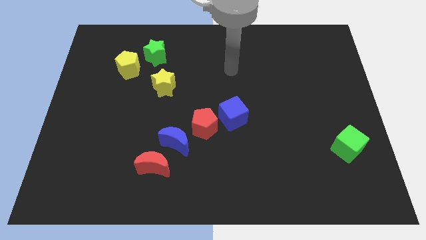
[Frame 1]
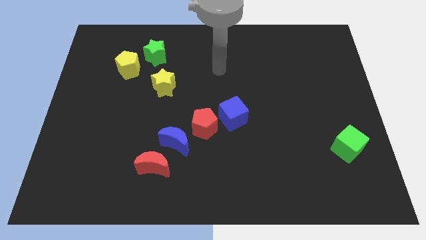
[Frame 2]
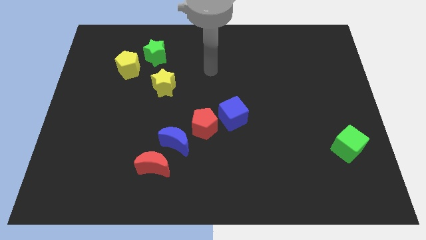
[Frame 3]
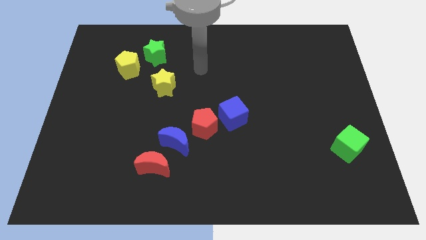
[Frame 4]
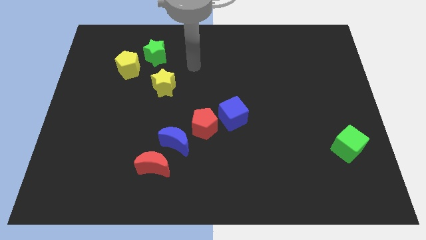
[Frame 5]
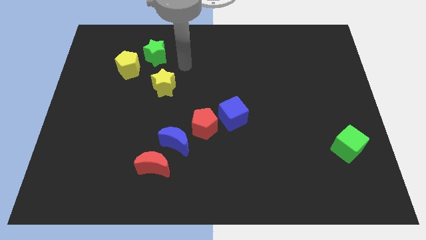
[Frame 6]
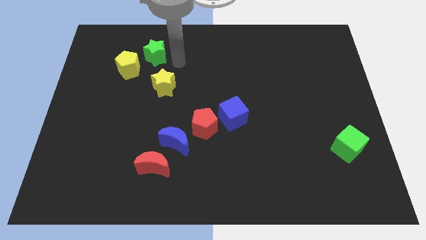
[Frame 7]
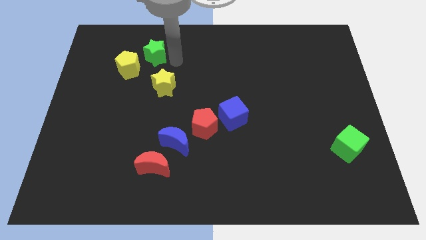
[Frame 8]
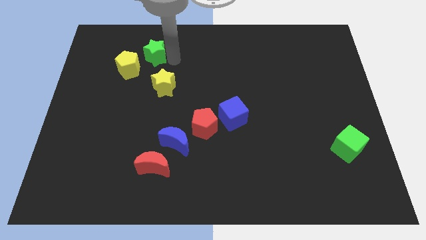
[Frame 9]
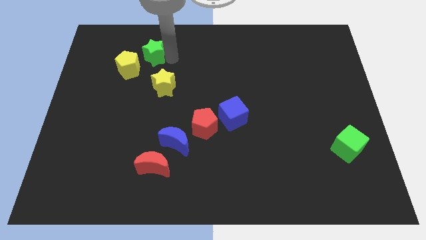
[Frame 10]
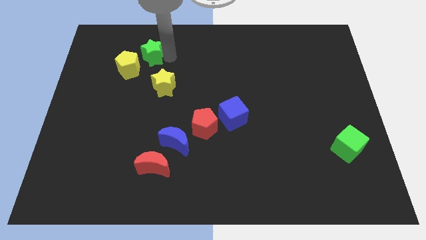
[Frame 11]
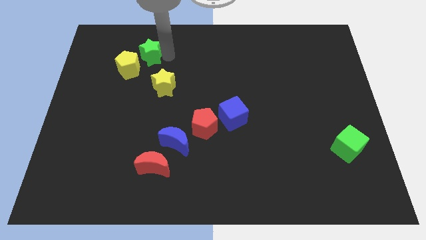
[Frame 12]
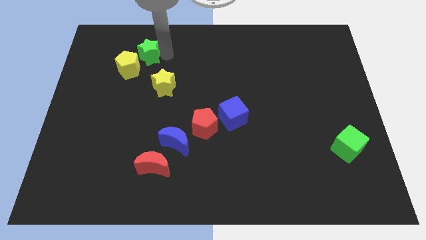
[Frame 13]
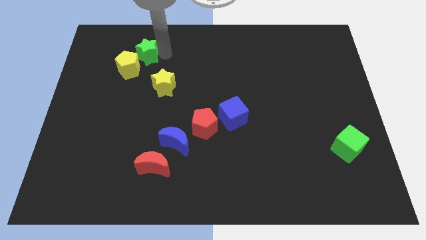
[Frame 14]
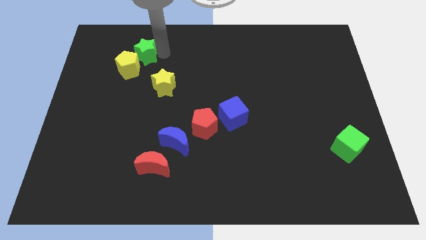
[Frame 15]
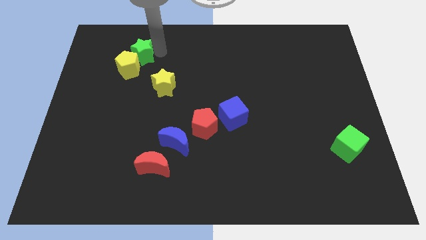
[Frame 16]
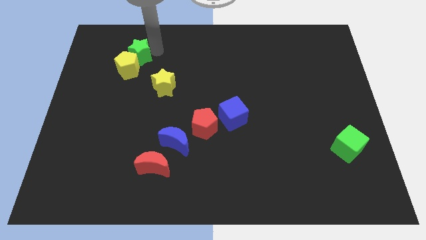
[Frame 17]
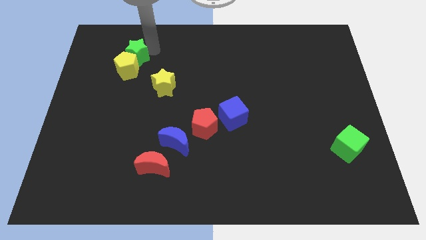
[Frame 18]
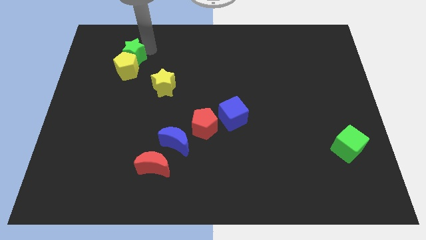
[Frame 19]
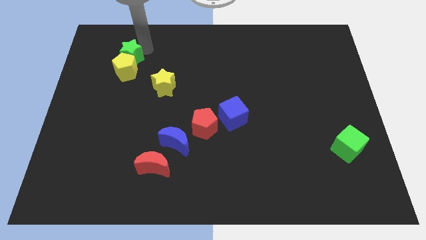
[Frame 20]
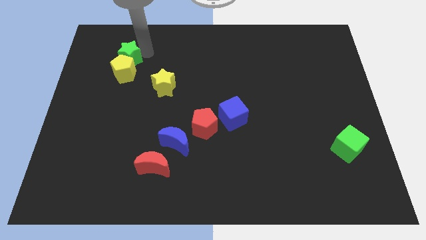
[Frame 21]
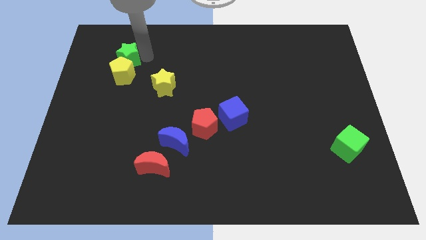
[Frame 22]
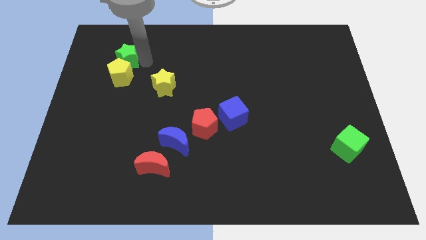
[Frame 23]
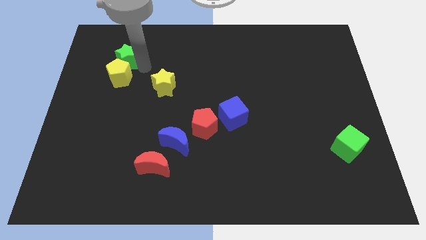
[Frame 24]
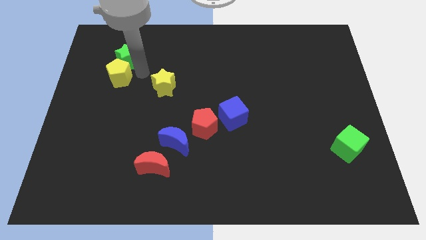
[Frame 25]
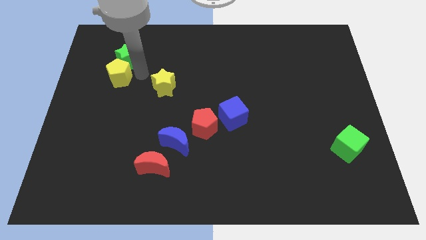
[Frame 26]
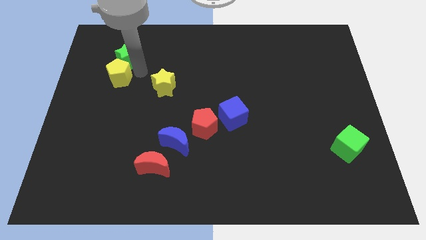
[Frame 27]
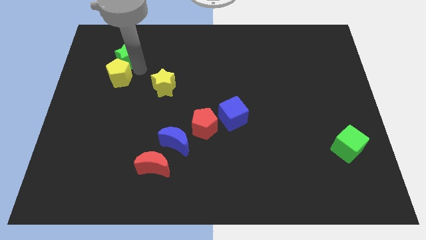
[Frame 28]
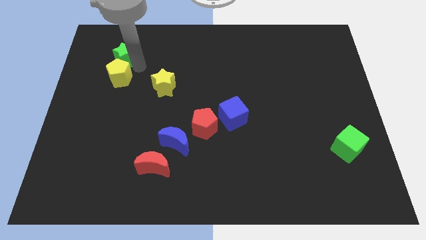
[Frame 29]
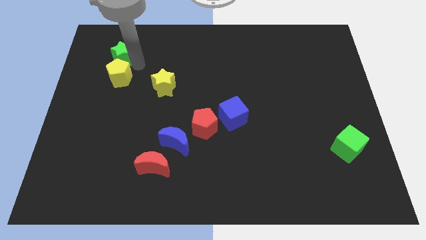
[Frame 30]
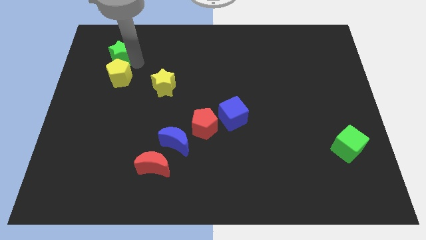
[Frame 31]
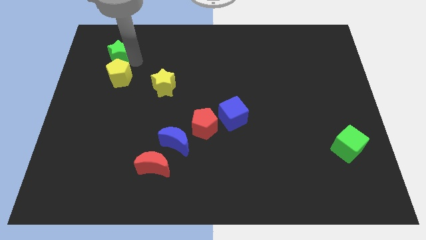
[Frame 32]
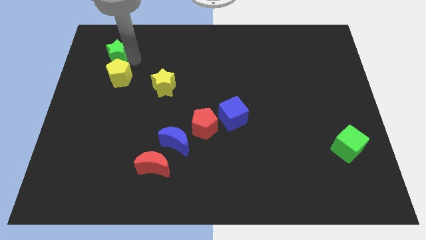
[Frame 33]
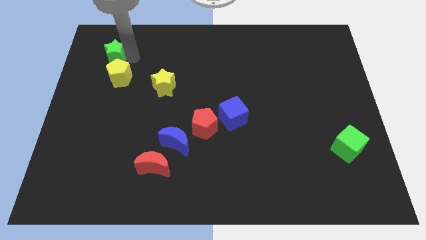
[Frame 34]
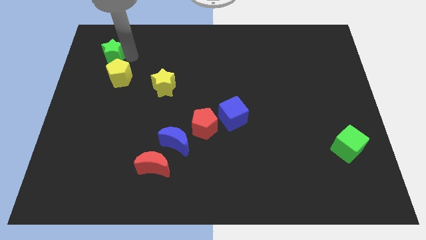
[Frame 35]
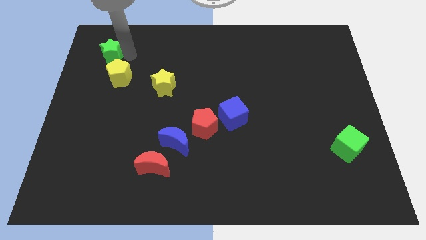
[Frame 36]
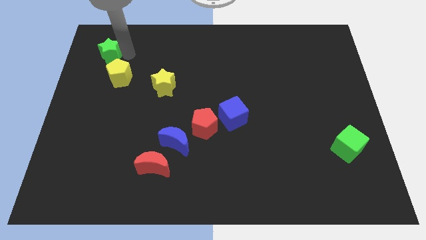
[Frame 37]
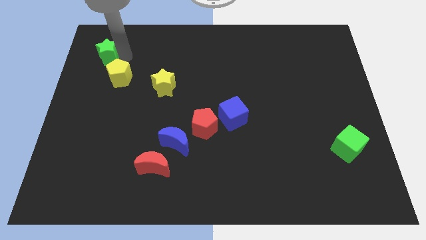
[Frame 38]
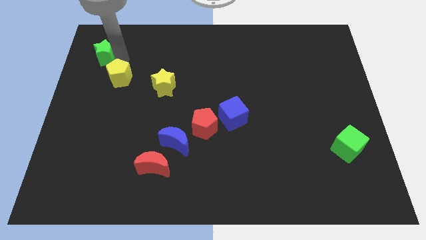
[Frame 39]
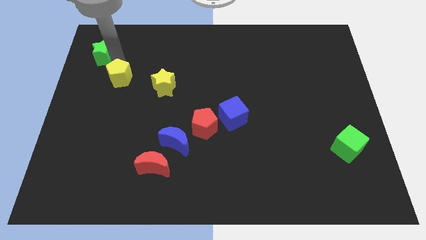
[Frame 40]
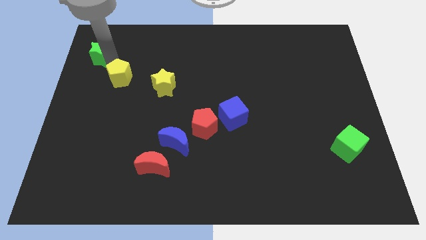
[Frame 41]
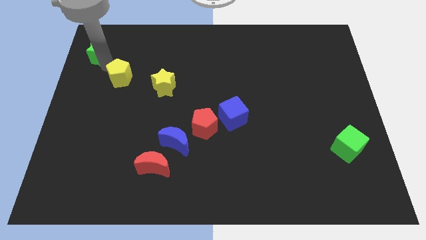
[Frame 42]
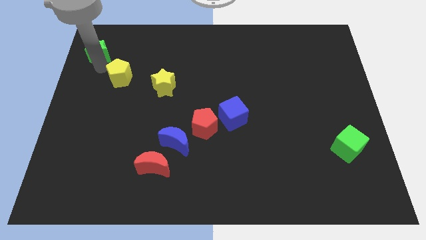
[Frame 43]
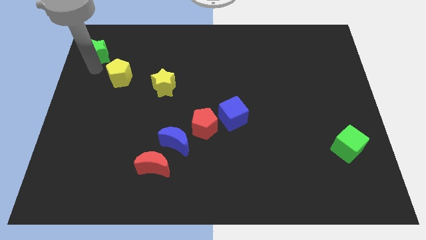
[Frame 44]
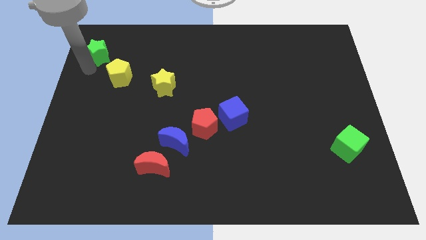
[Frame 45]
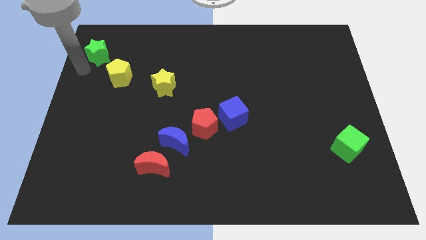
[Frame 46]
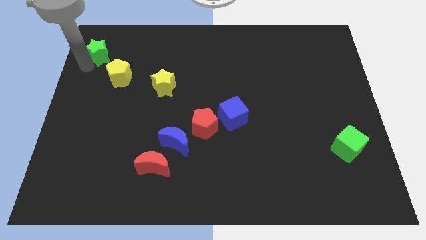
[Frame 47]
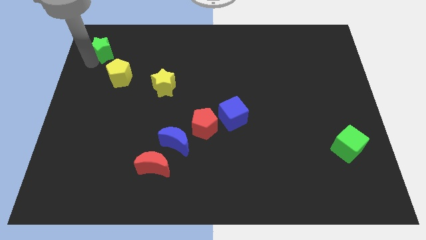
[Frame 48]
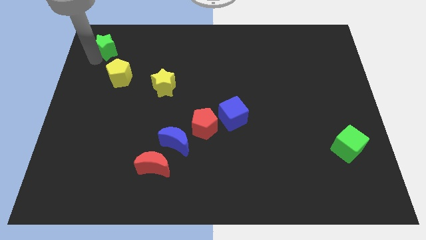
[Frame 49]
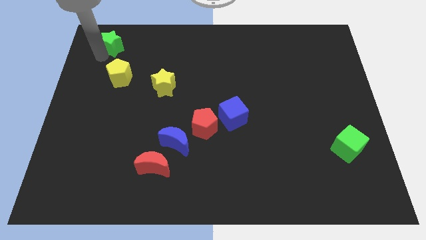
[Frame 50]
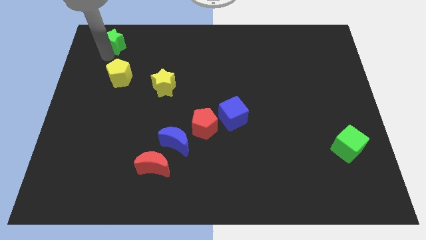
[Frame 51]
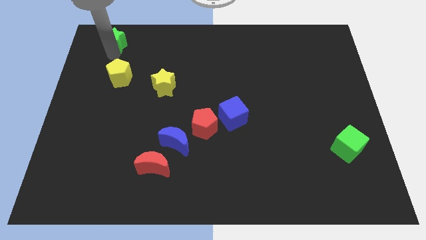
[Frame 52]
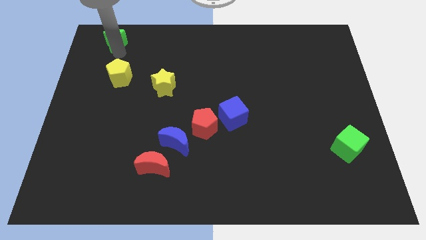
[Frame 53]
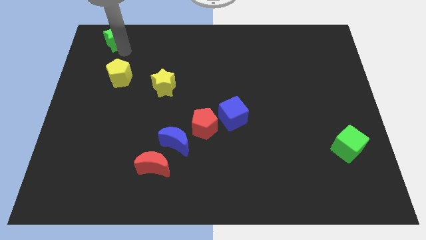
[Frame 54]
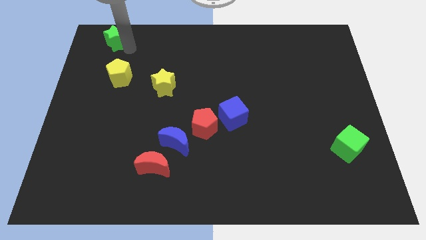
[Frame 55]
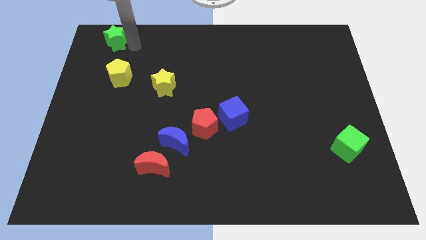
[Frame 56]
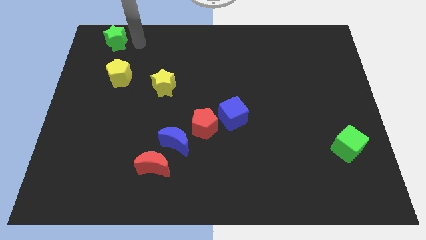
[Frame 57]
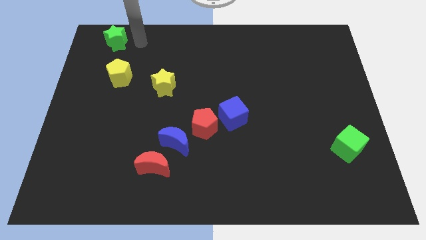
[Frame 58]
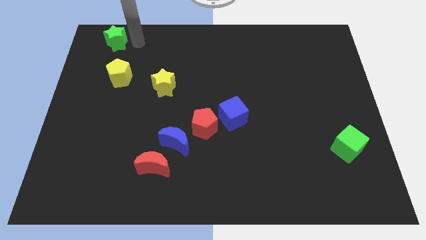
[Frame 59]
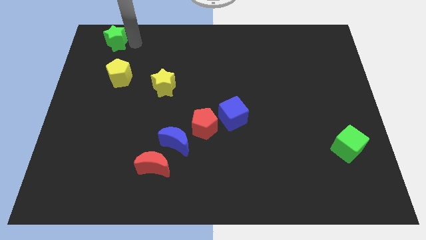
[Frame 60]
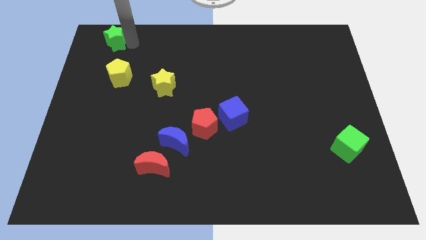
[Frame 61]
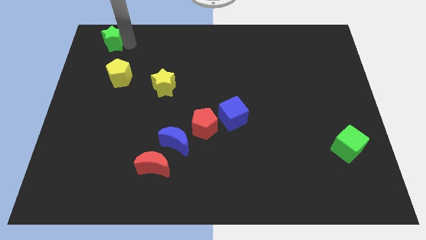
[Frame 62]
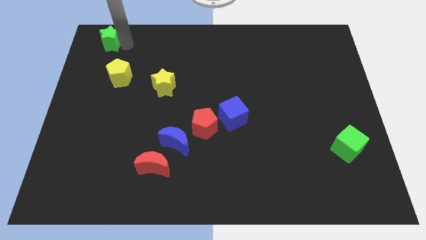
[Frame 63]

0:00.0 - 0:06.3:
slide the green star to the top left of the board

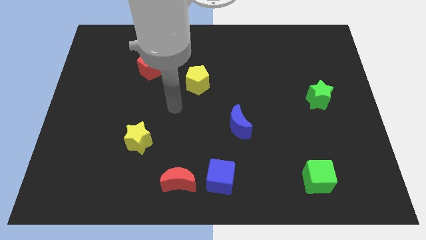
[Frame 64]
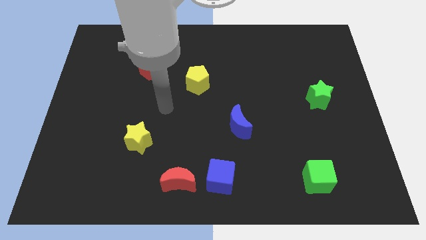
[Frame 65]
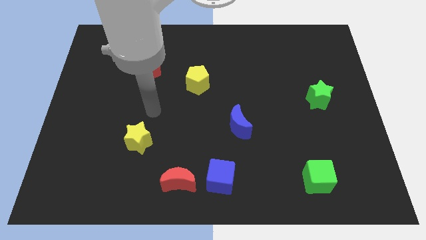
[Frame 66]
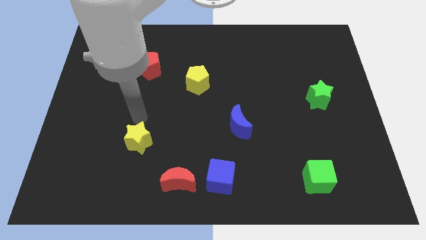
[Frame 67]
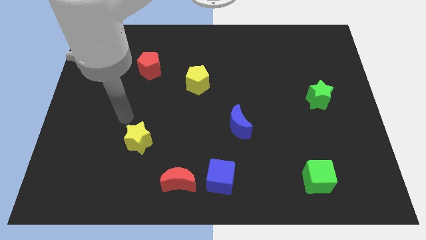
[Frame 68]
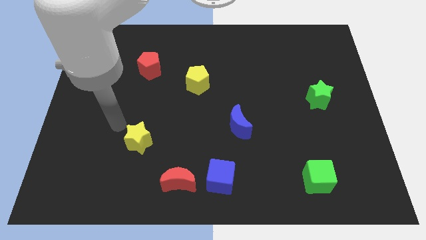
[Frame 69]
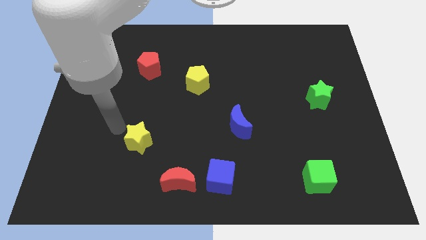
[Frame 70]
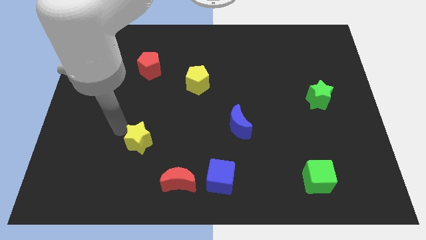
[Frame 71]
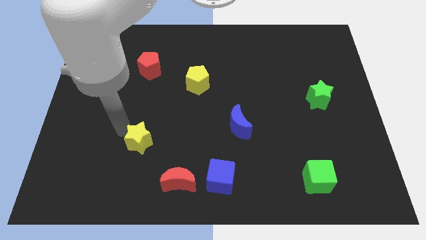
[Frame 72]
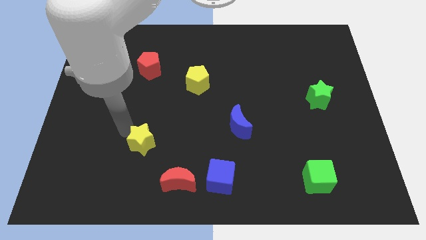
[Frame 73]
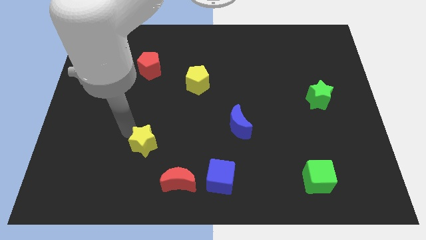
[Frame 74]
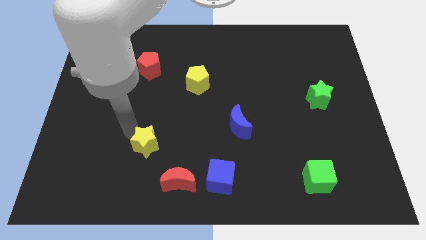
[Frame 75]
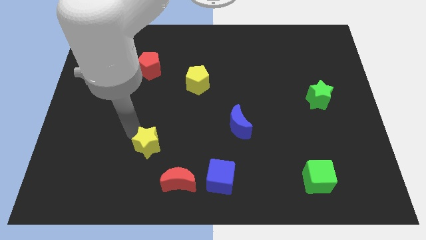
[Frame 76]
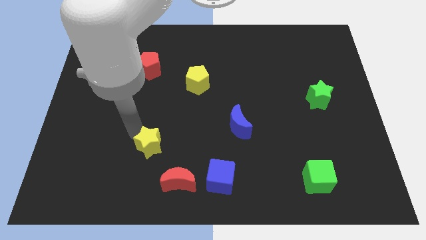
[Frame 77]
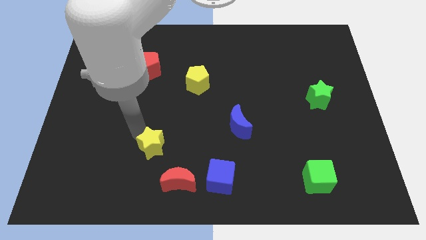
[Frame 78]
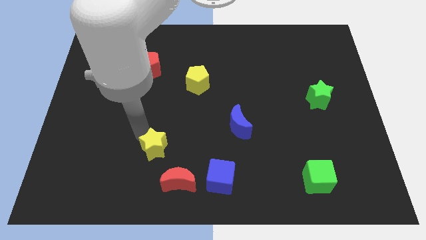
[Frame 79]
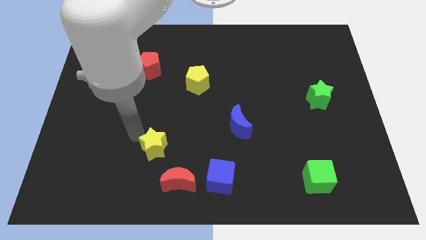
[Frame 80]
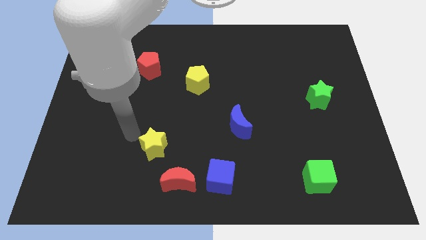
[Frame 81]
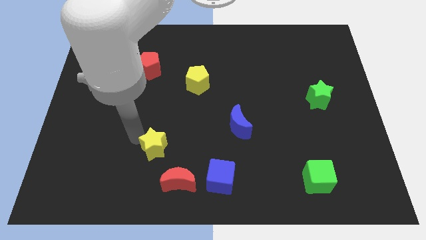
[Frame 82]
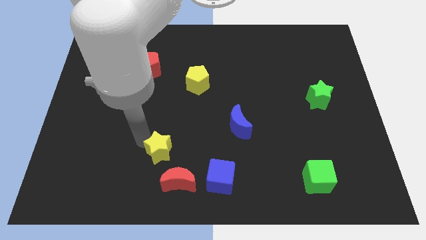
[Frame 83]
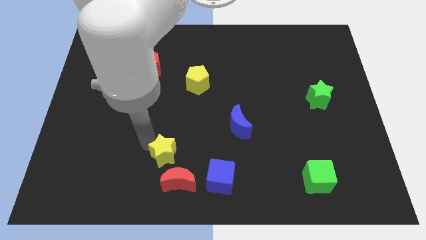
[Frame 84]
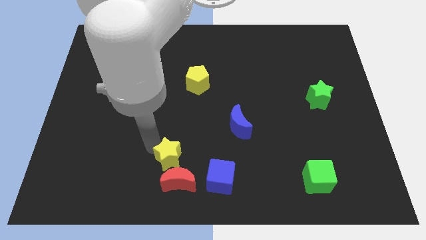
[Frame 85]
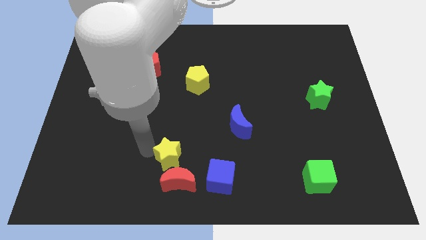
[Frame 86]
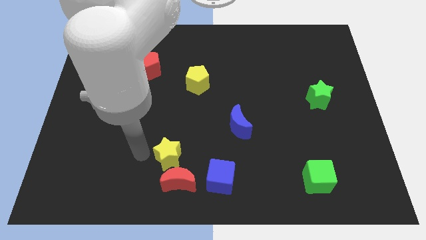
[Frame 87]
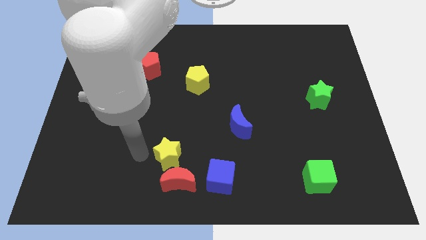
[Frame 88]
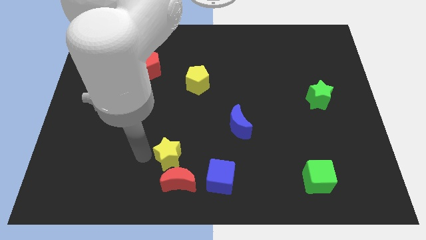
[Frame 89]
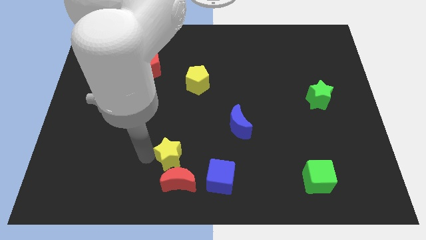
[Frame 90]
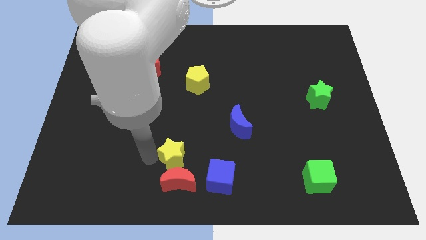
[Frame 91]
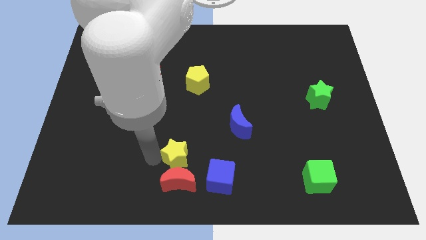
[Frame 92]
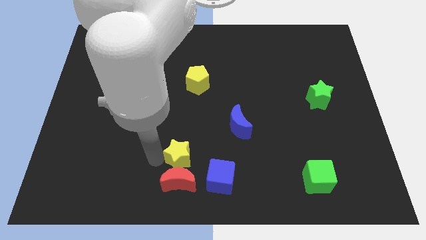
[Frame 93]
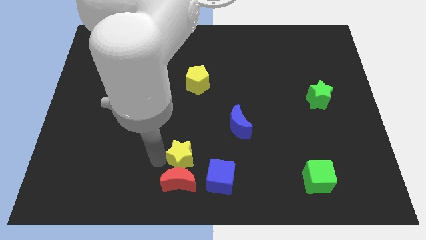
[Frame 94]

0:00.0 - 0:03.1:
move the yellow star to the bottom
